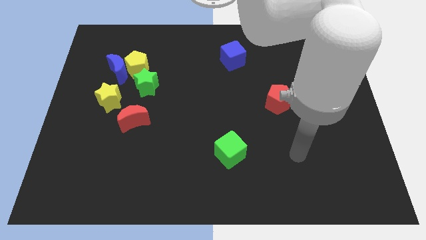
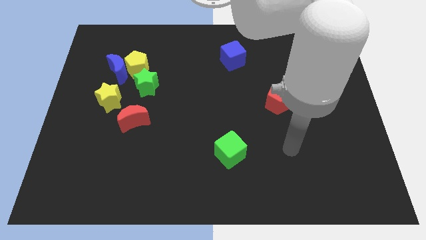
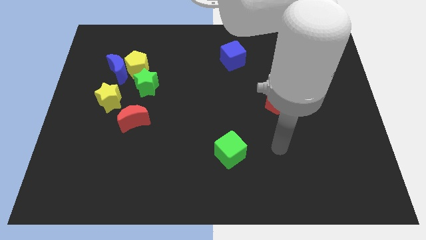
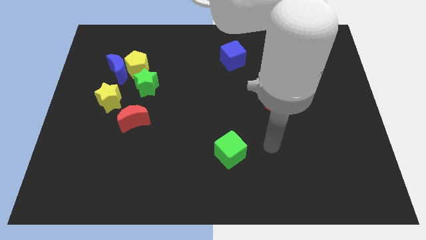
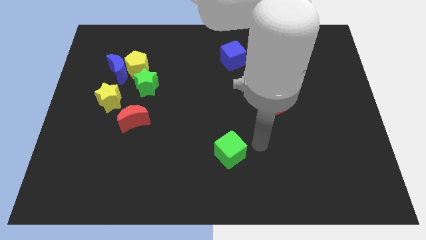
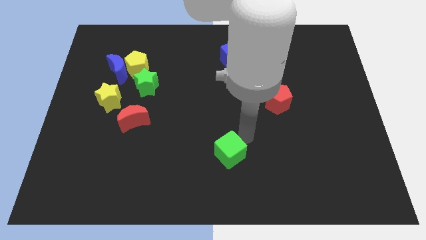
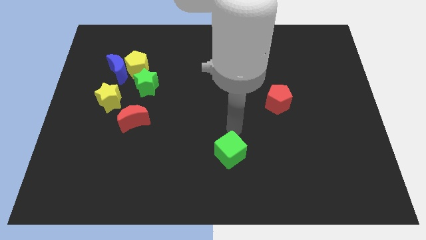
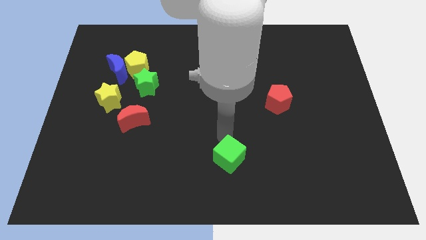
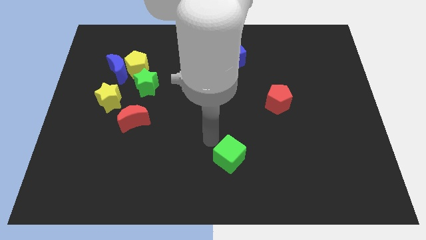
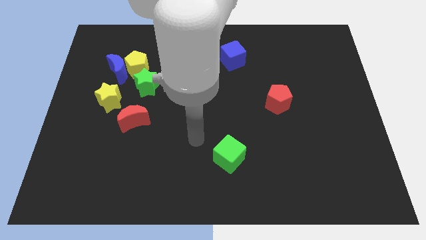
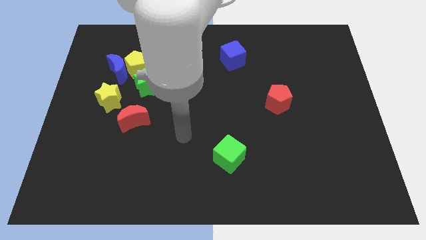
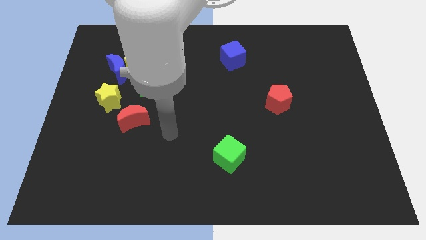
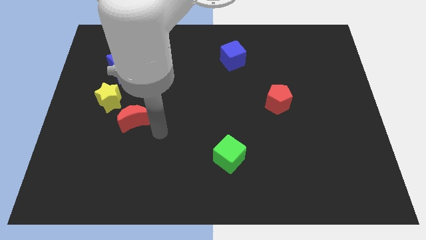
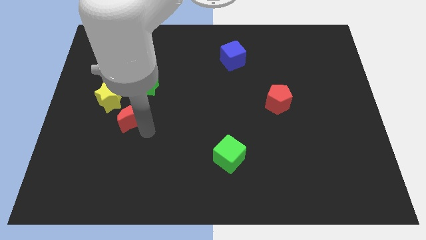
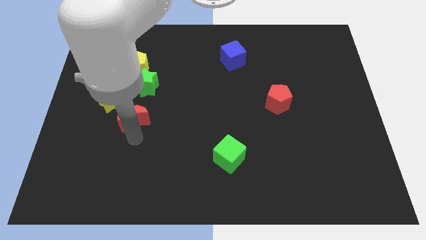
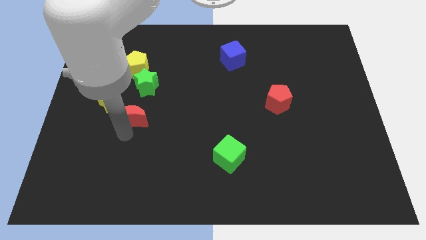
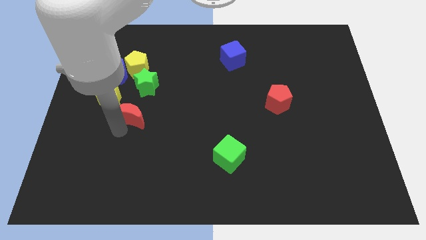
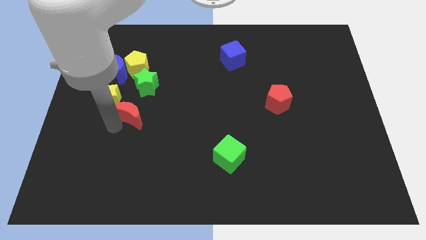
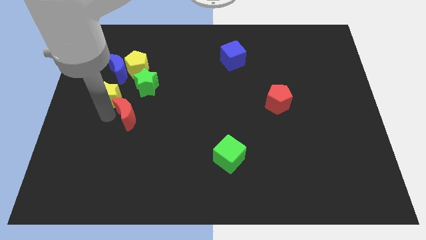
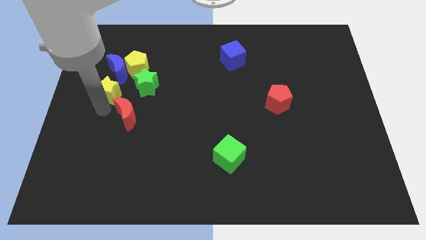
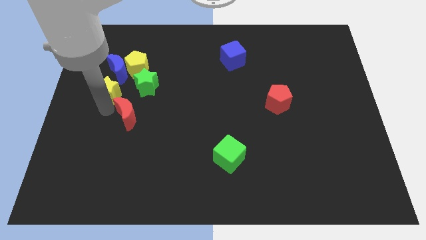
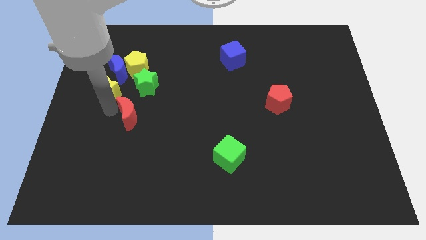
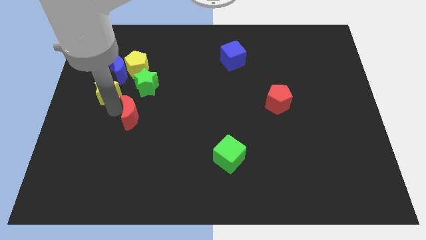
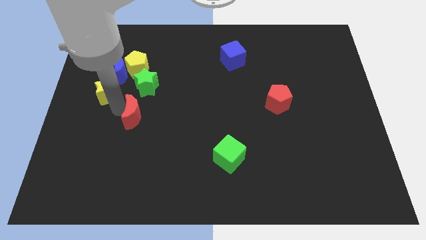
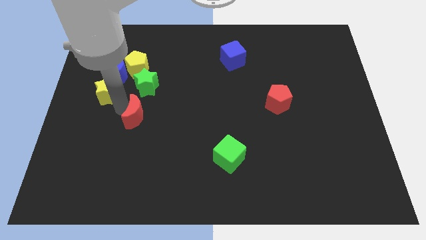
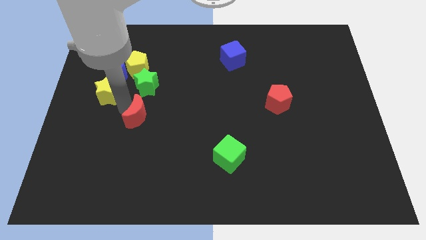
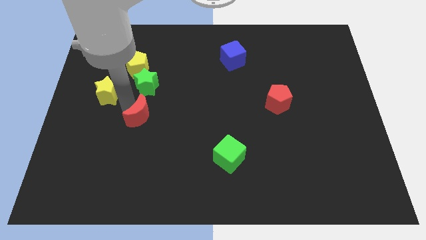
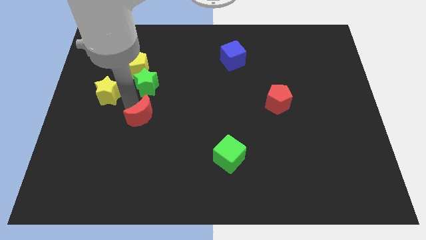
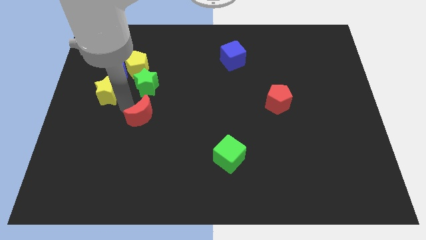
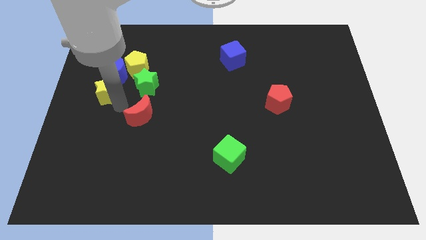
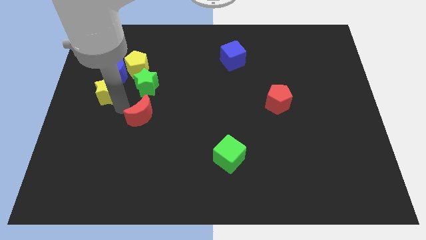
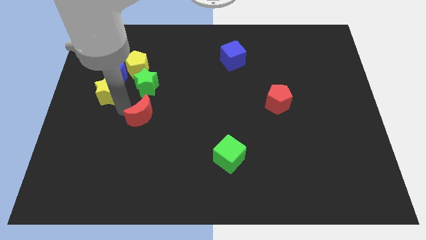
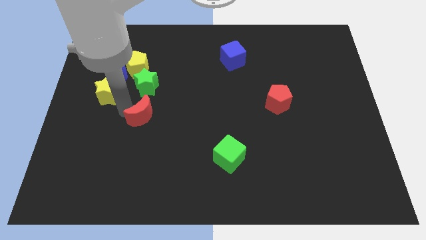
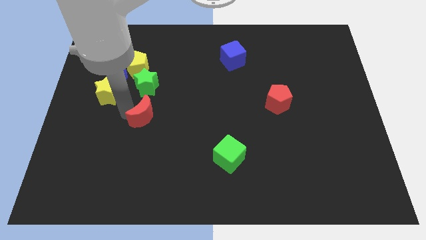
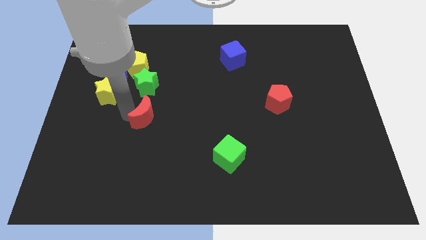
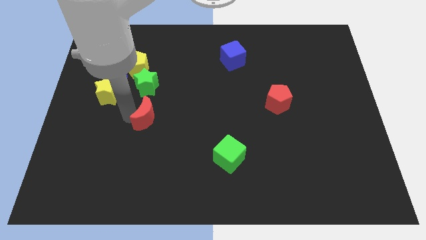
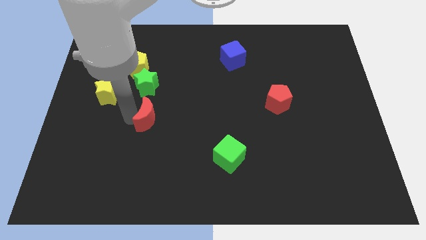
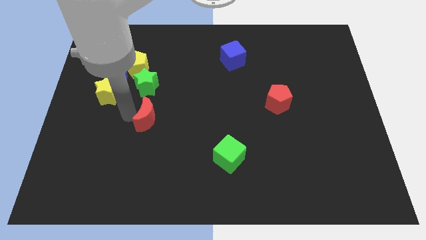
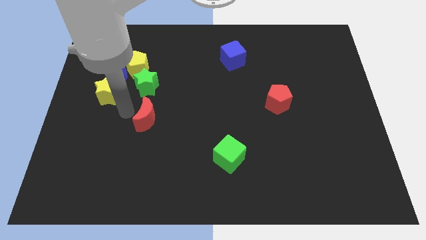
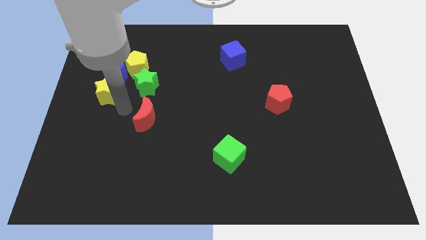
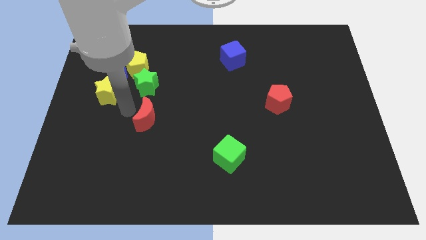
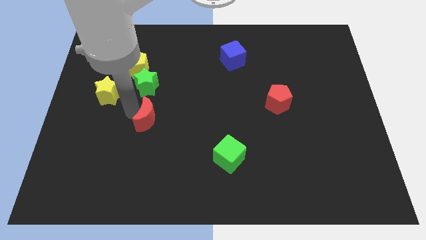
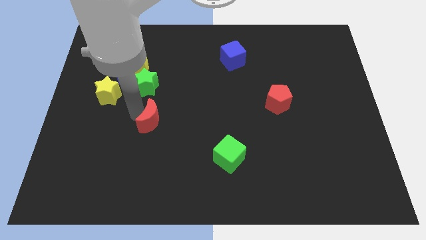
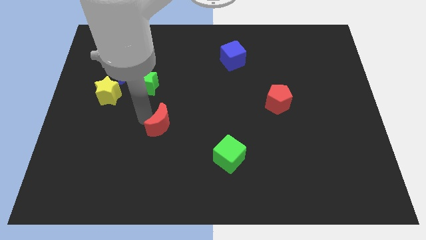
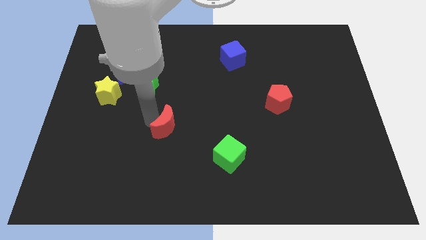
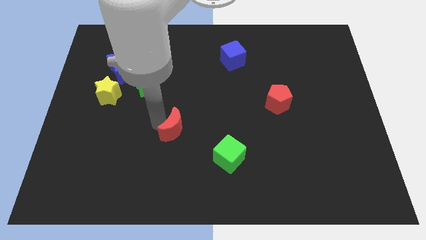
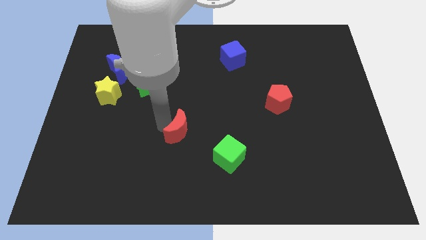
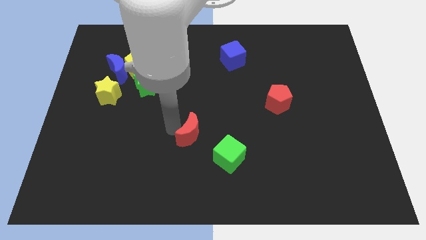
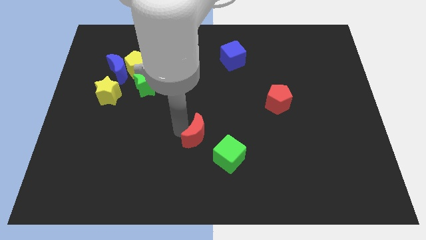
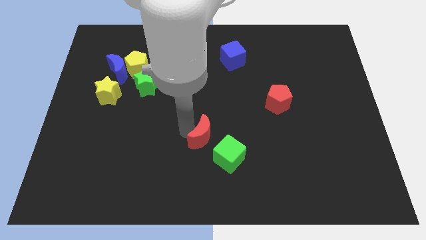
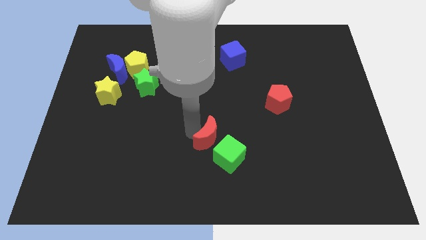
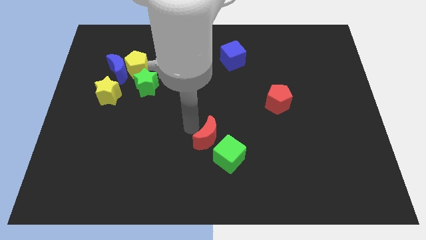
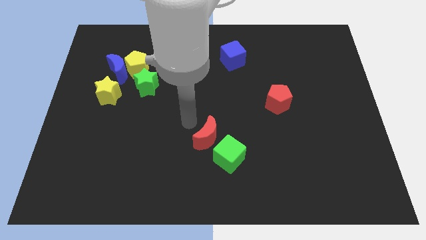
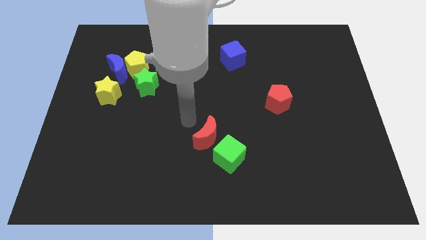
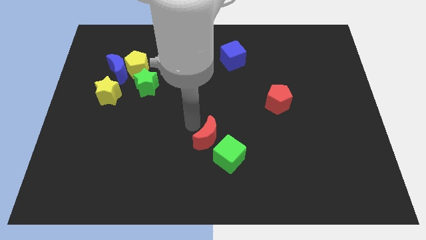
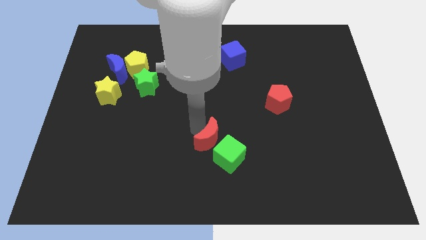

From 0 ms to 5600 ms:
slide the red moon close to the green cube

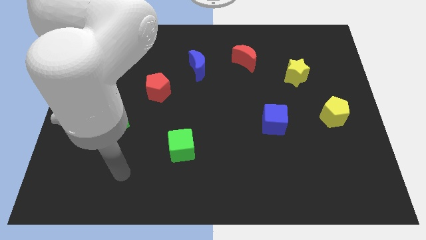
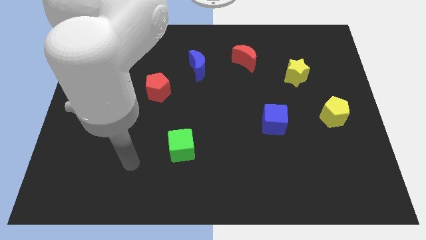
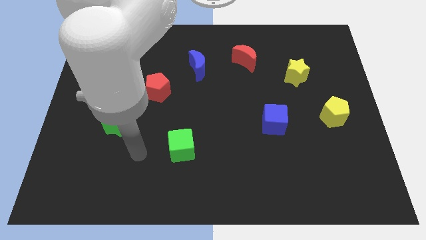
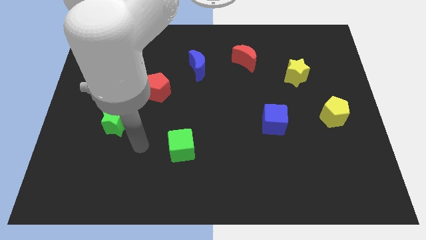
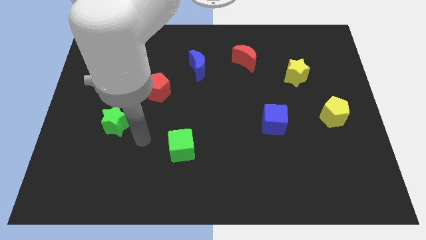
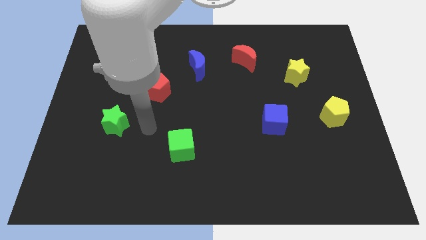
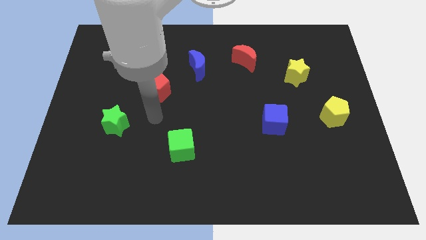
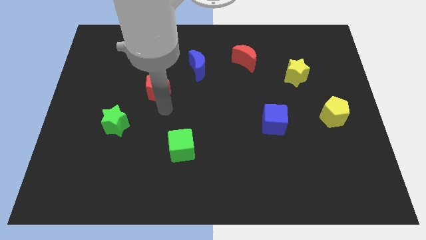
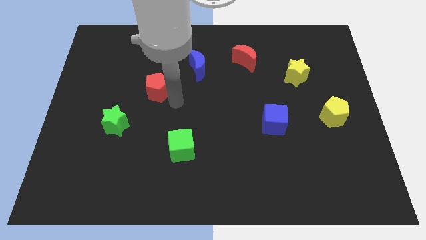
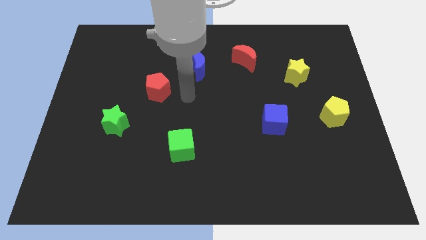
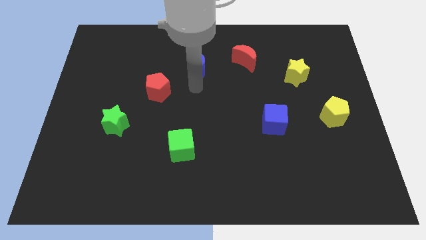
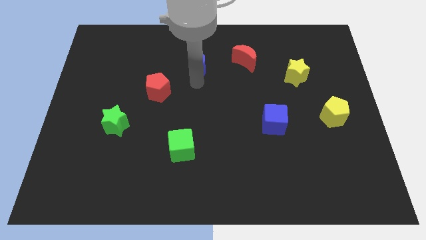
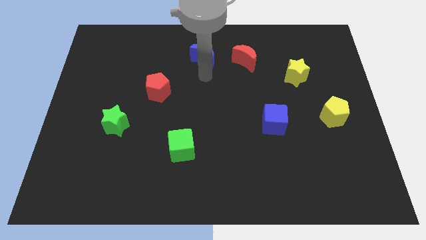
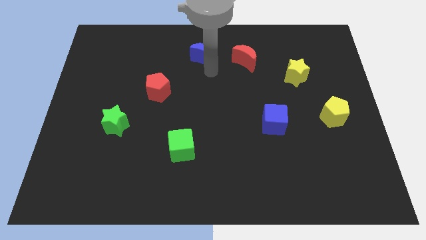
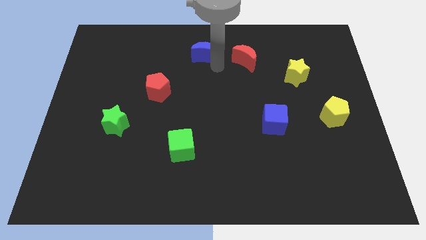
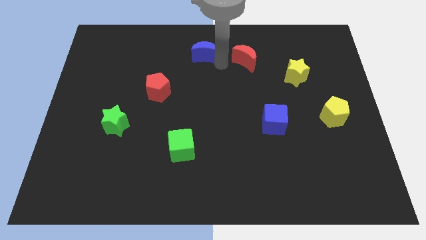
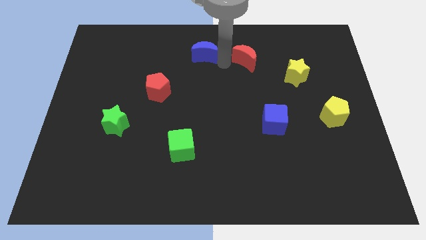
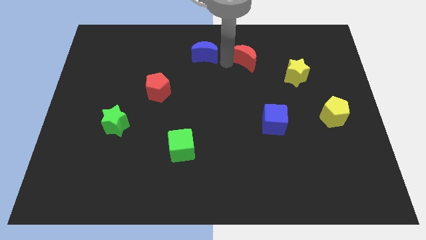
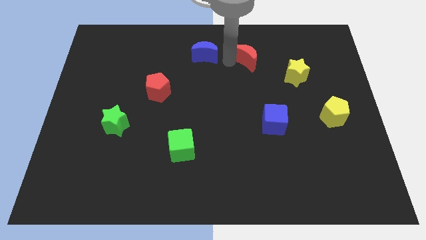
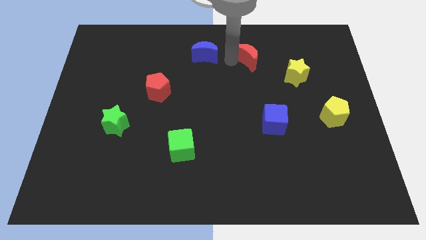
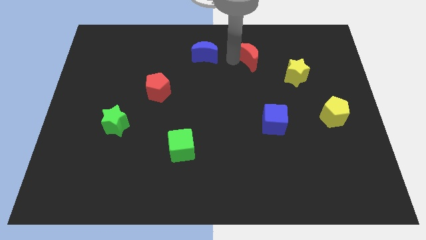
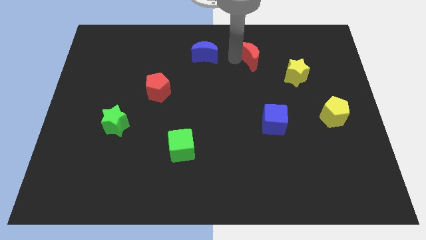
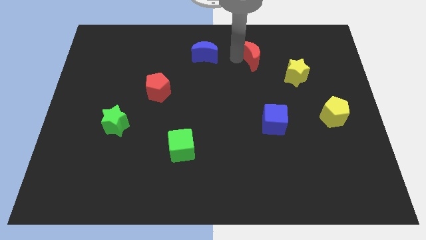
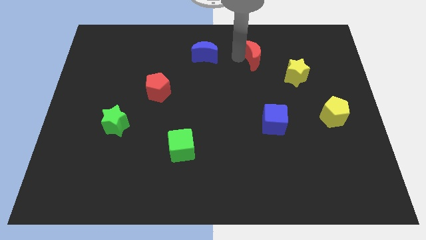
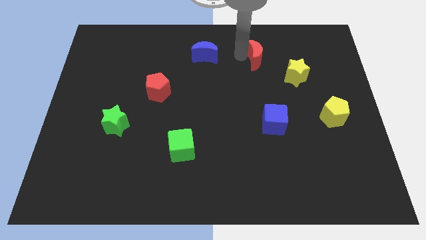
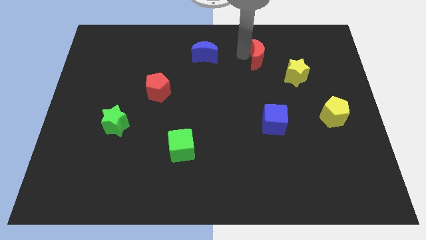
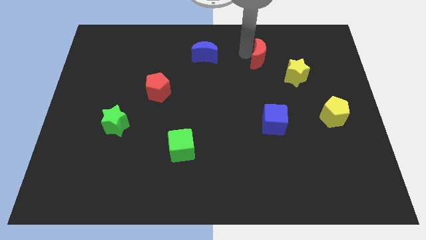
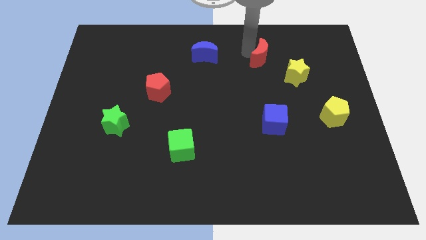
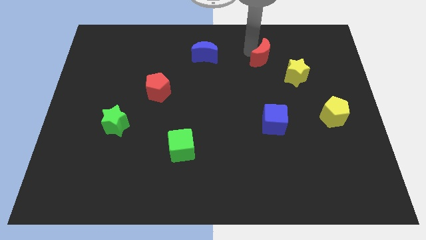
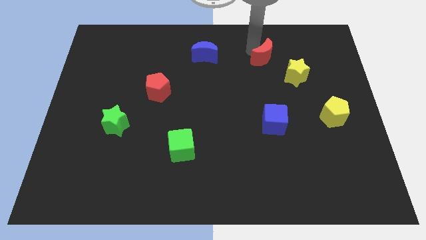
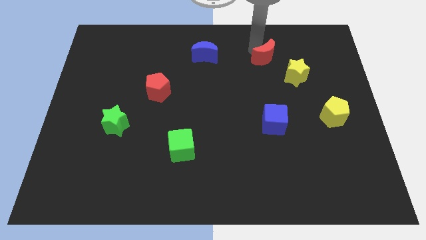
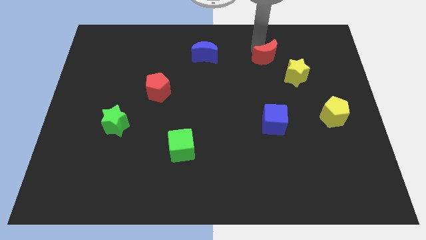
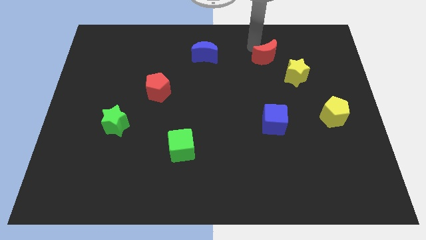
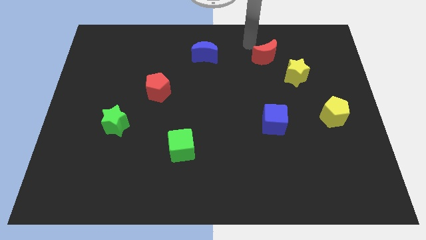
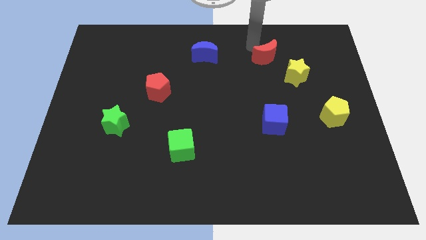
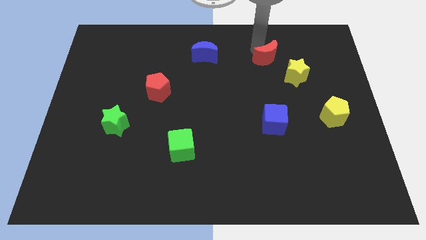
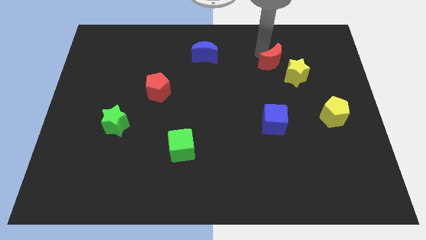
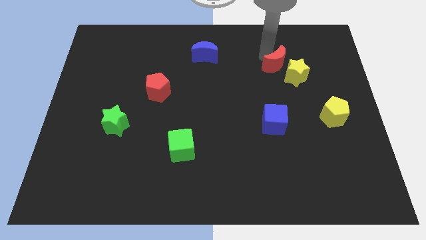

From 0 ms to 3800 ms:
slide the red moon next to the yellow star
